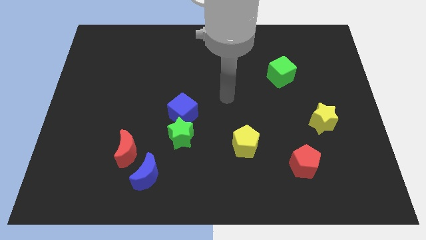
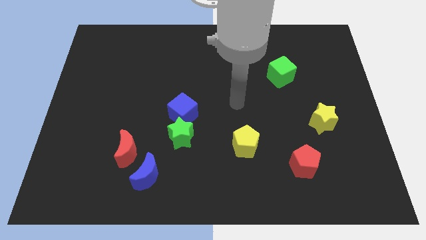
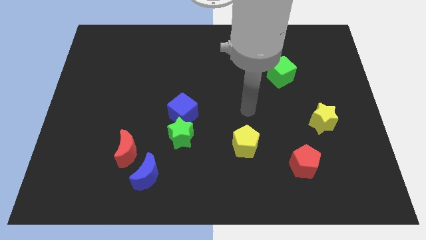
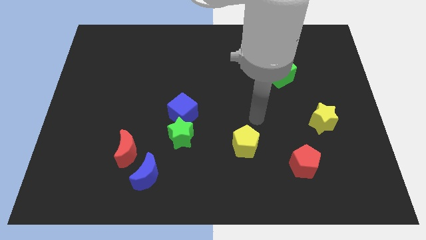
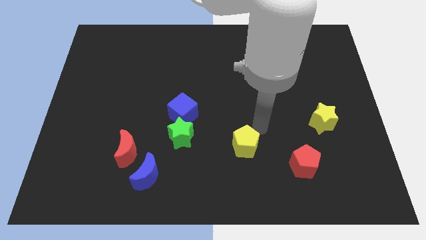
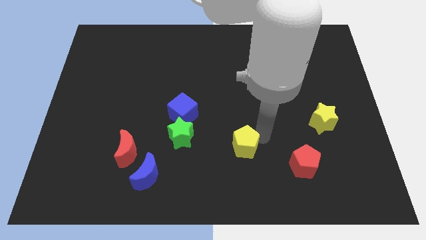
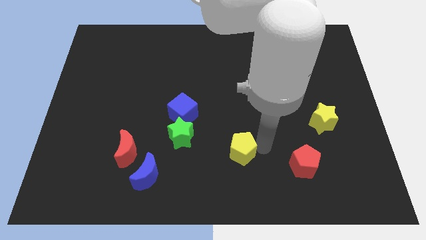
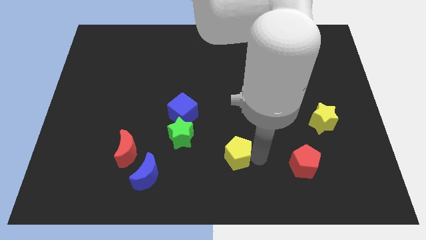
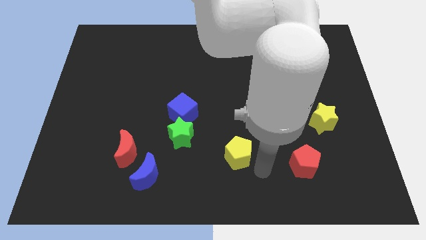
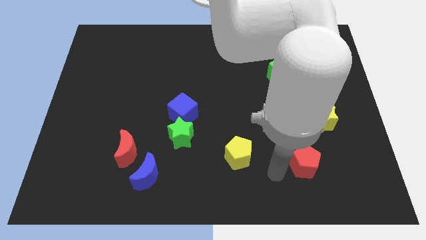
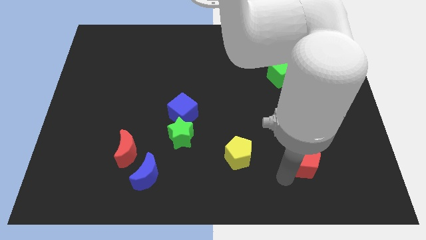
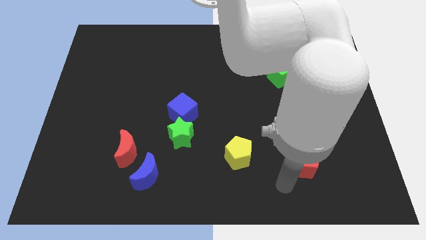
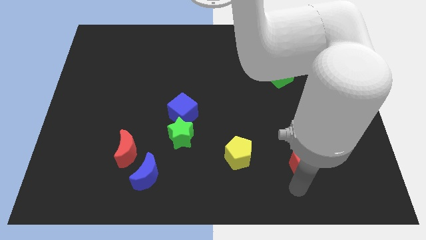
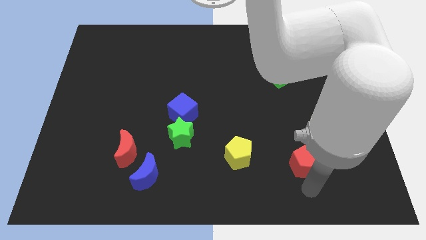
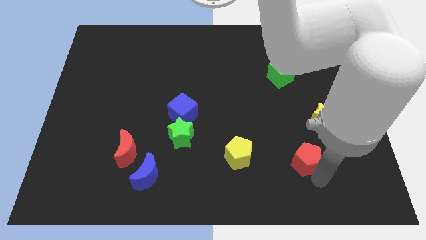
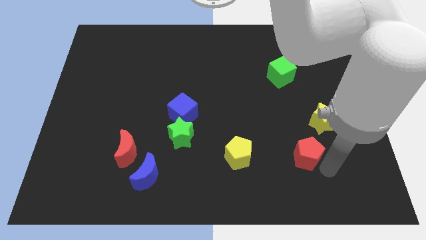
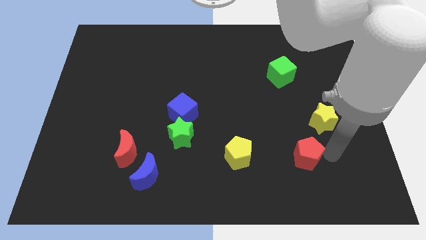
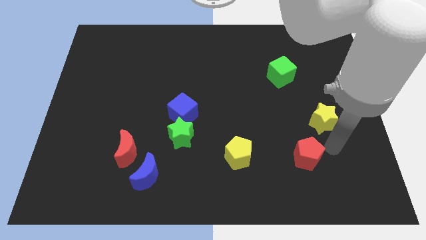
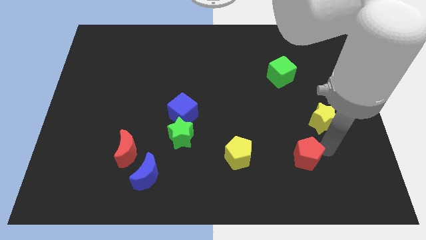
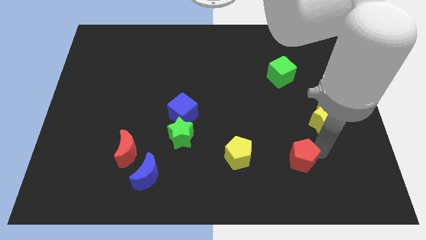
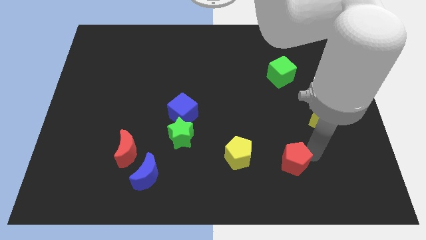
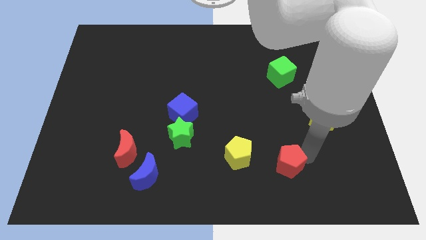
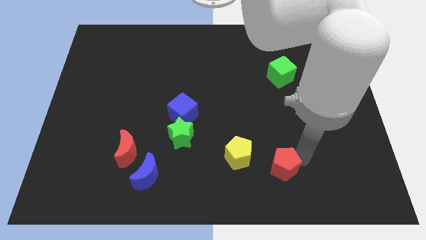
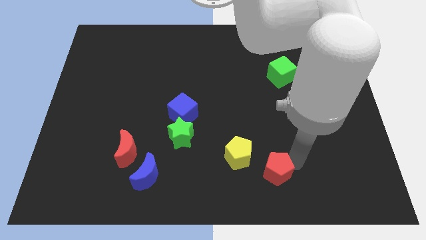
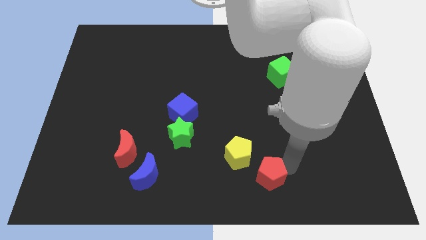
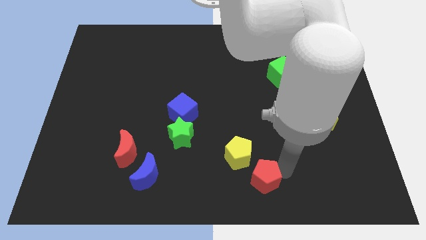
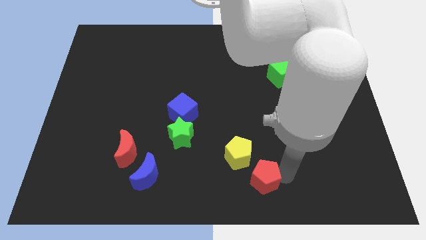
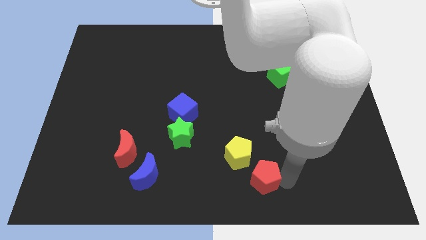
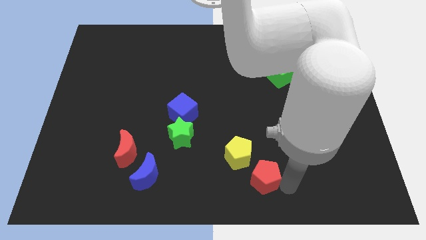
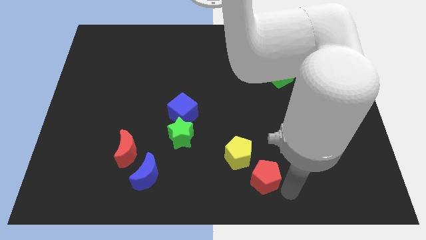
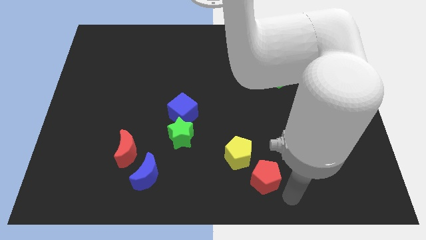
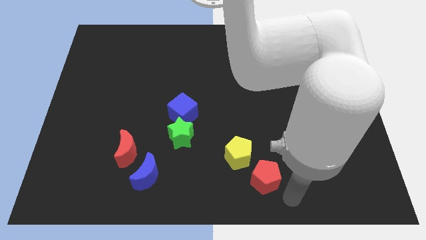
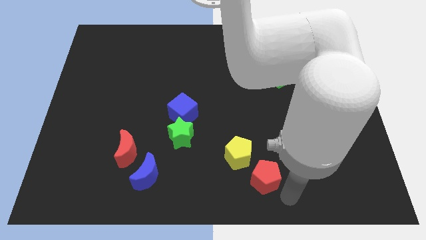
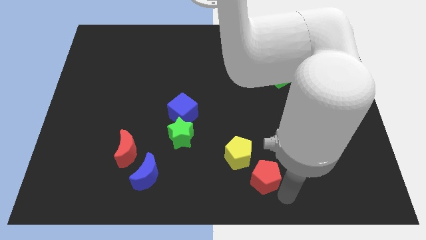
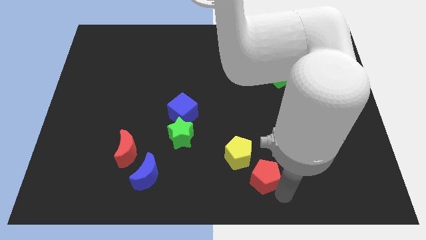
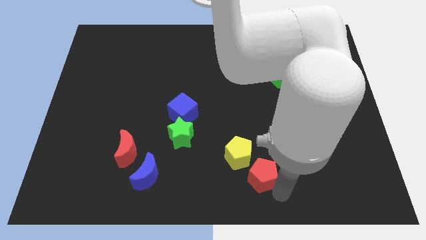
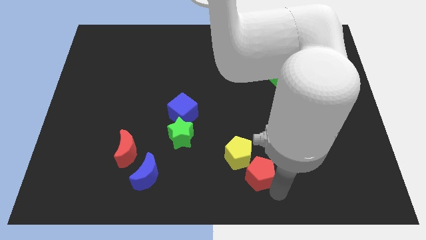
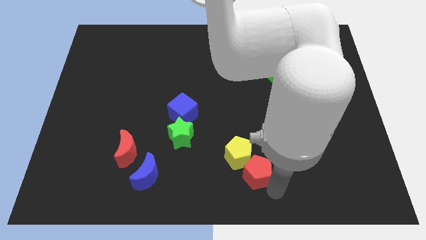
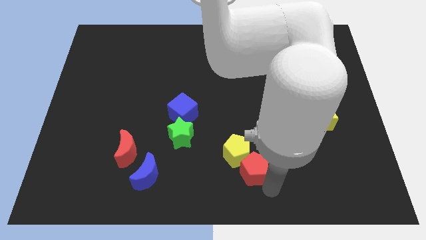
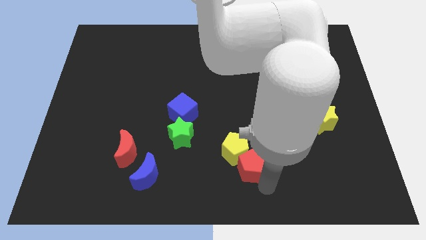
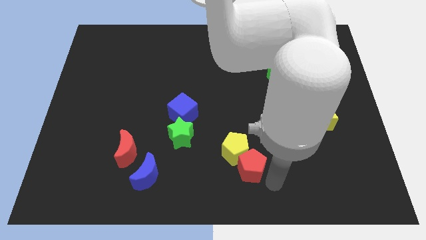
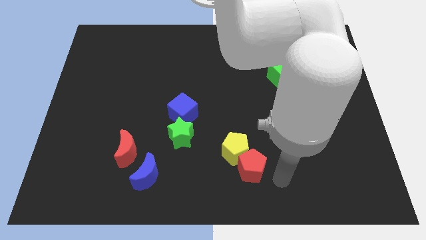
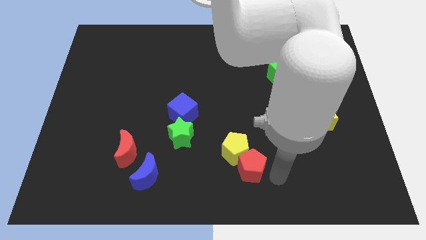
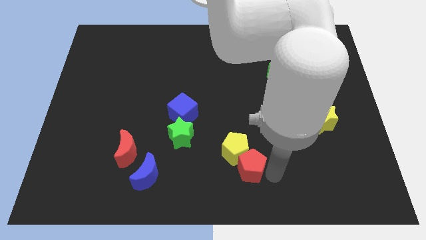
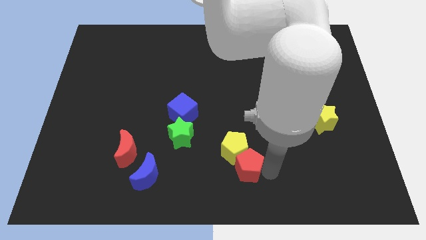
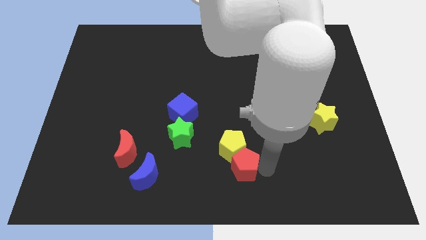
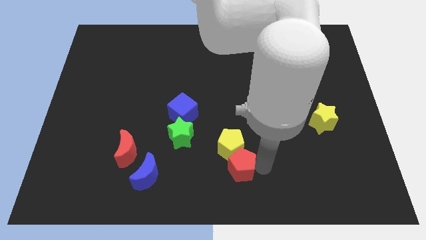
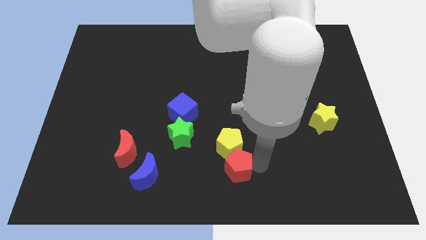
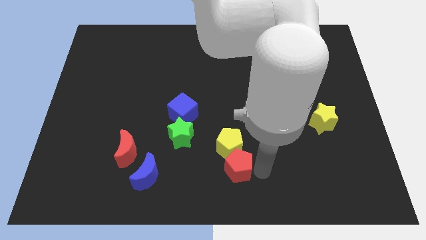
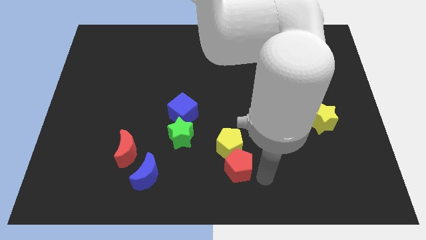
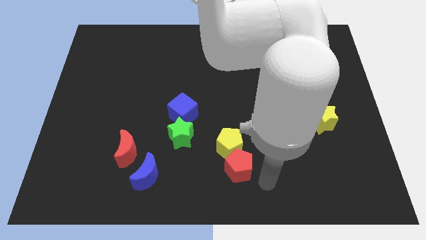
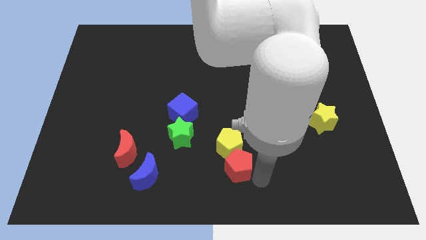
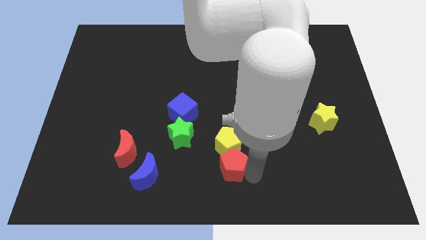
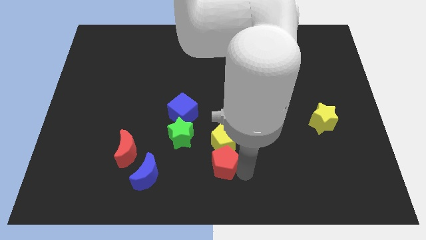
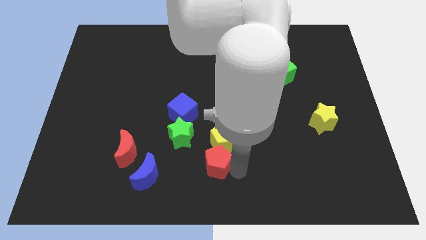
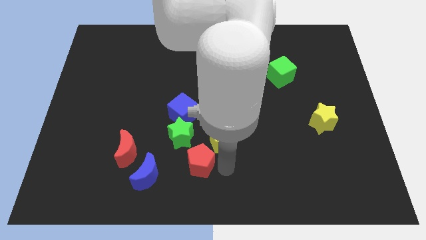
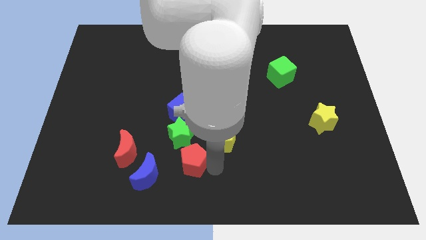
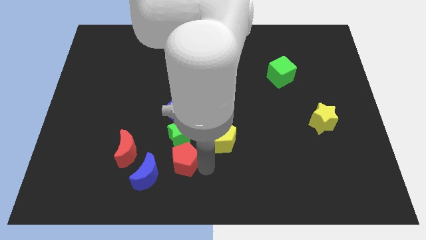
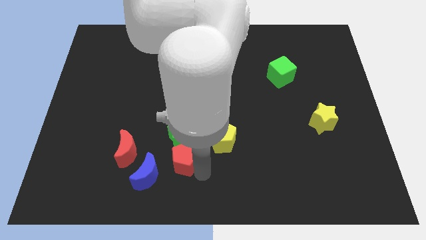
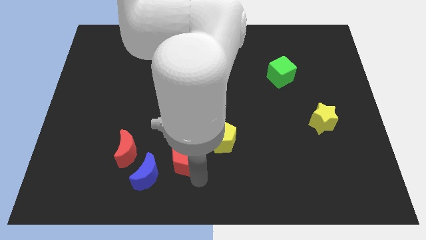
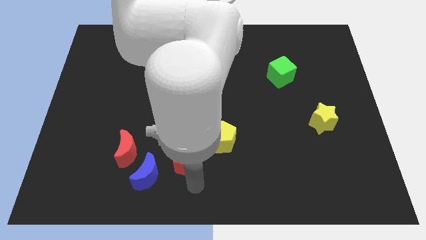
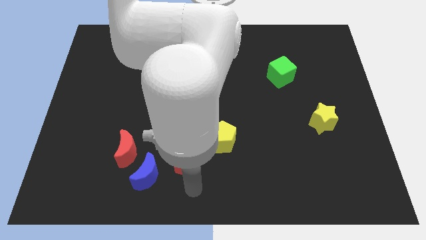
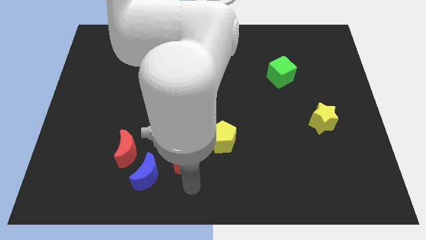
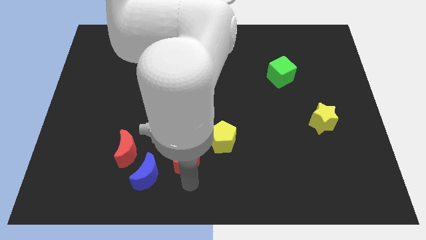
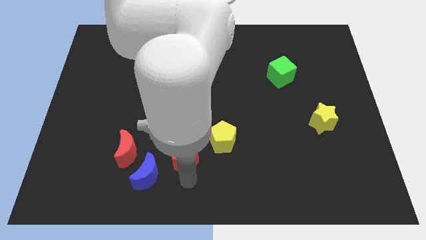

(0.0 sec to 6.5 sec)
put the red pentagon close to the green star

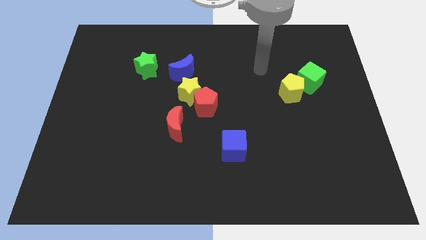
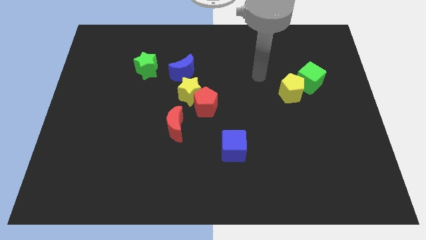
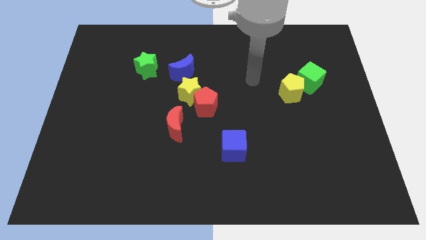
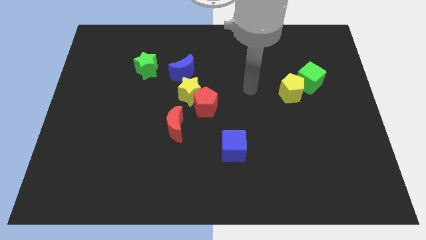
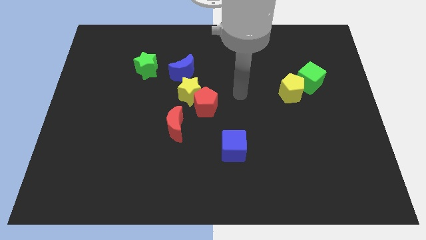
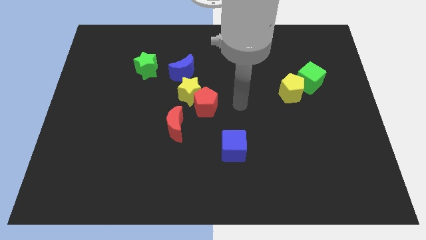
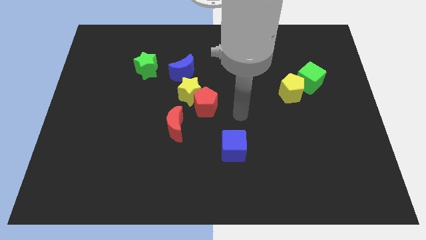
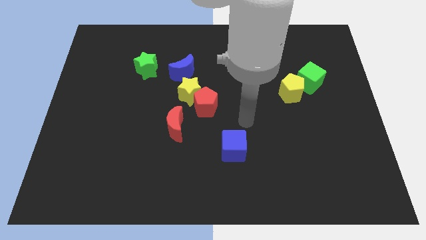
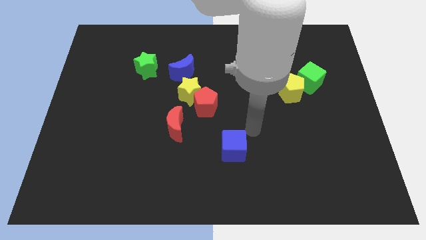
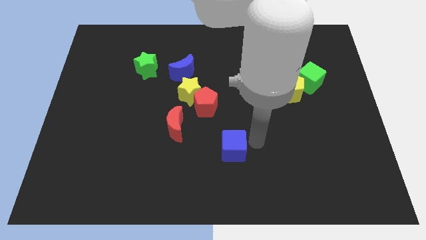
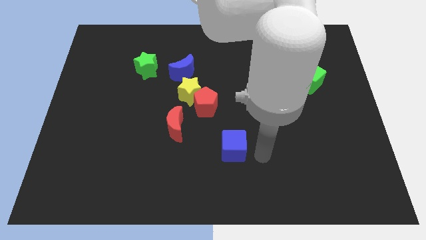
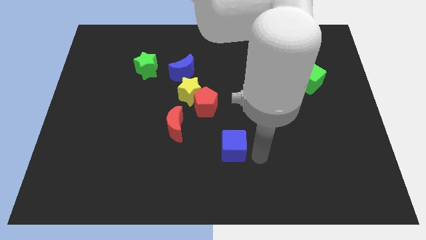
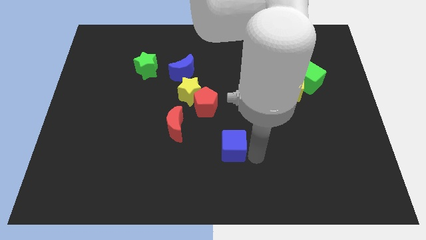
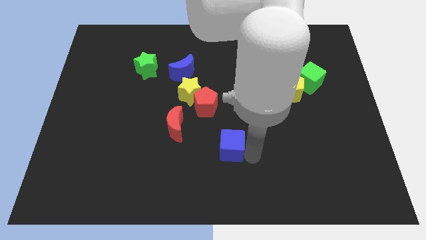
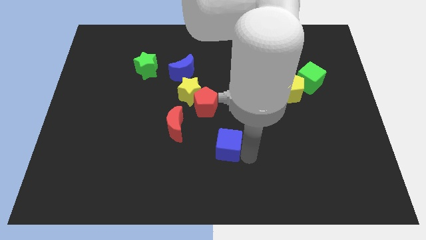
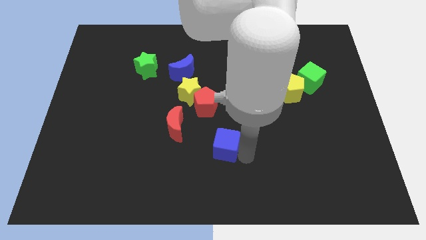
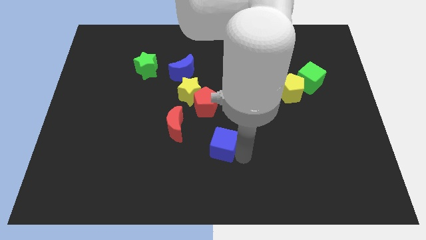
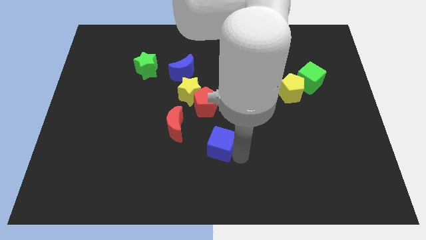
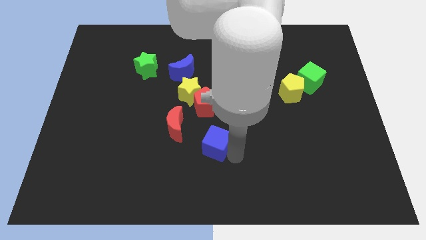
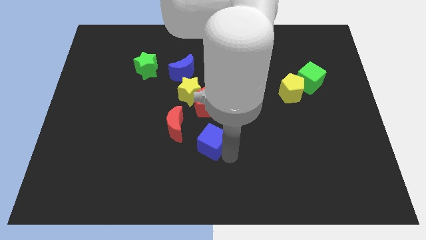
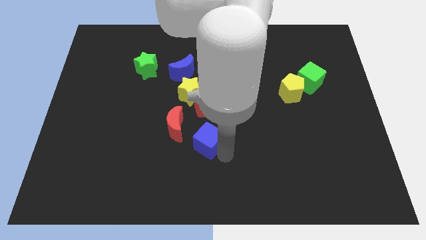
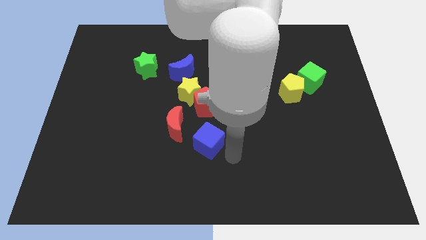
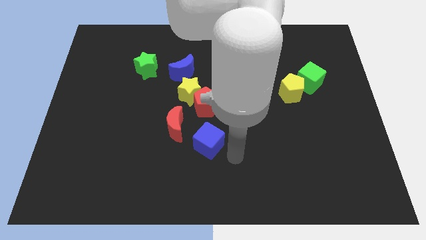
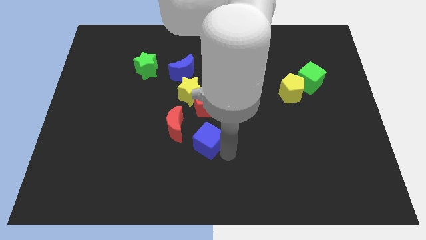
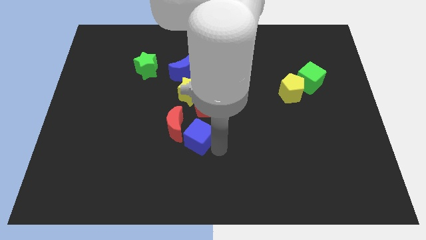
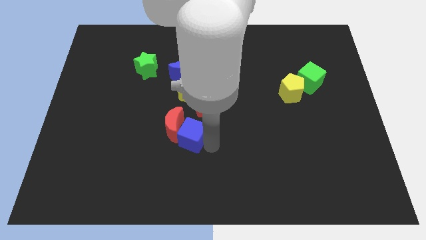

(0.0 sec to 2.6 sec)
put the blue cube to the red moon
